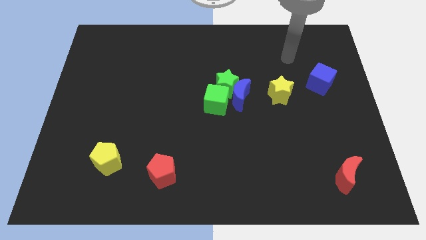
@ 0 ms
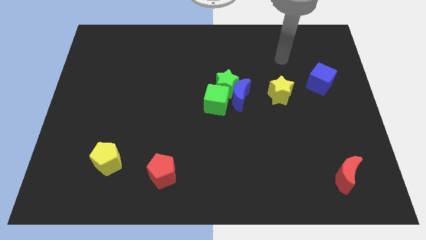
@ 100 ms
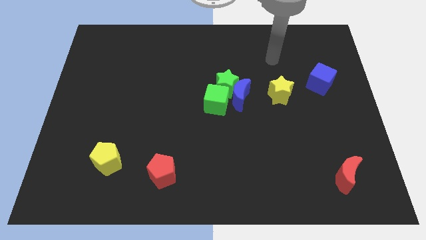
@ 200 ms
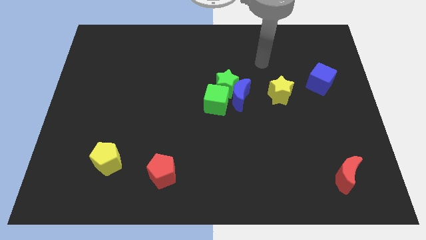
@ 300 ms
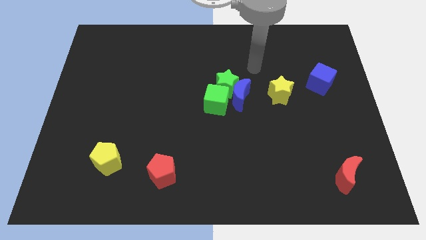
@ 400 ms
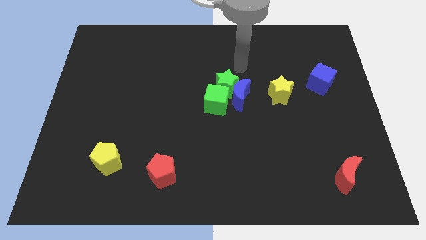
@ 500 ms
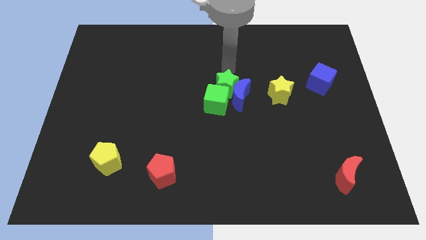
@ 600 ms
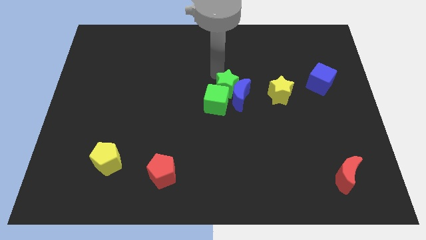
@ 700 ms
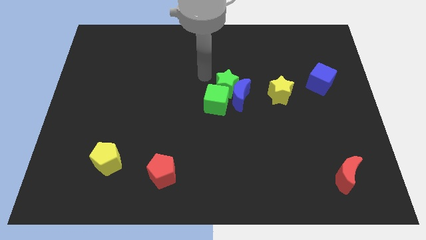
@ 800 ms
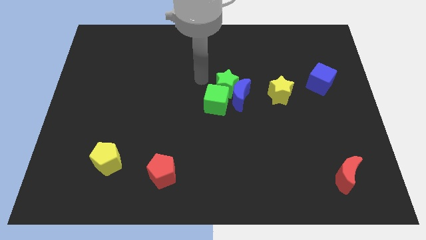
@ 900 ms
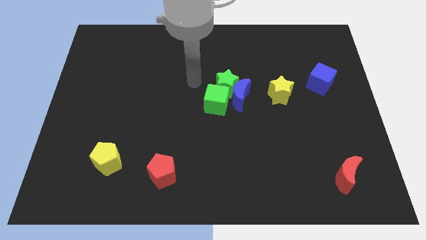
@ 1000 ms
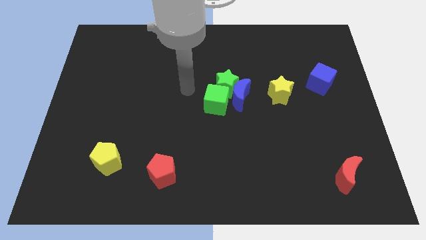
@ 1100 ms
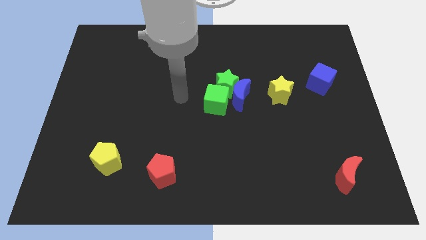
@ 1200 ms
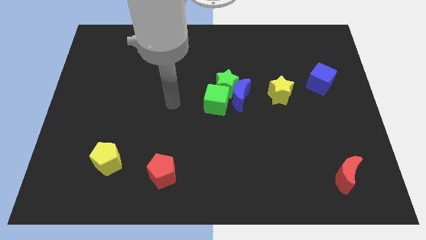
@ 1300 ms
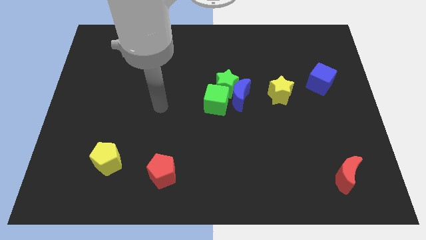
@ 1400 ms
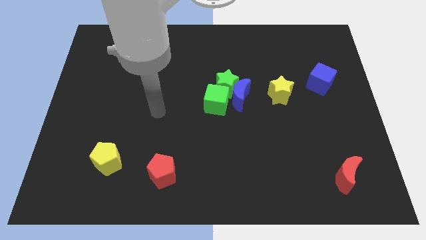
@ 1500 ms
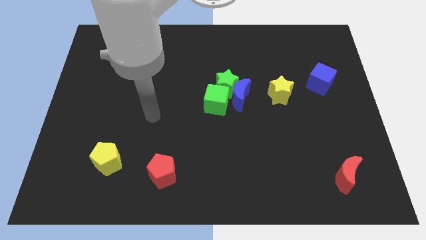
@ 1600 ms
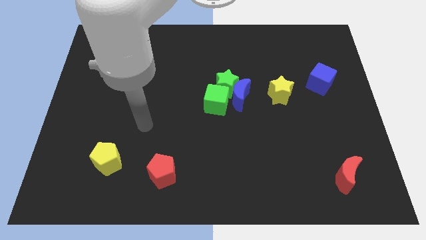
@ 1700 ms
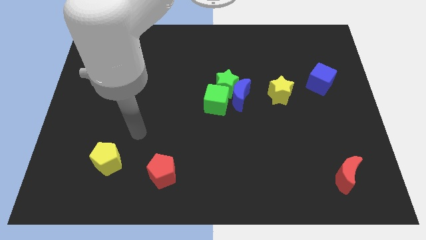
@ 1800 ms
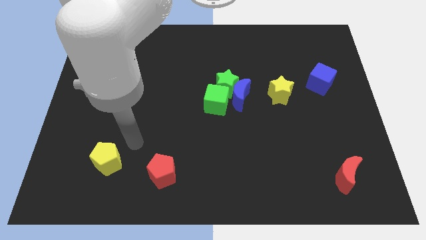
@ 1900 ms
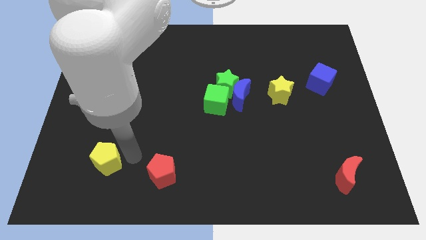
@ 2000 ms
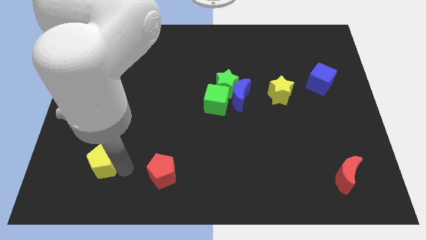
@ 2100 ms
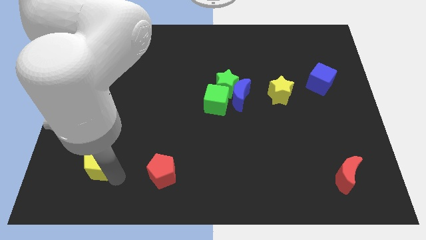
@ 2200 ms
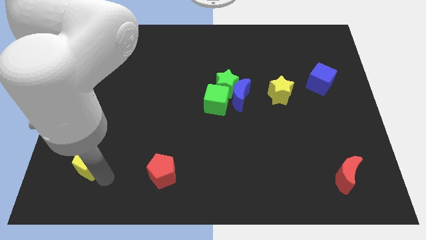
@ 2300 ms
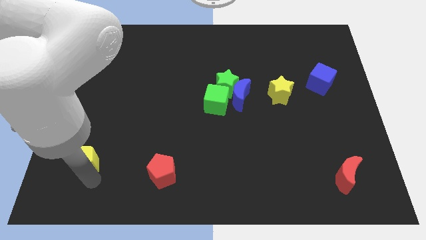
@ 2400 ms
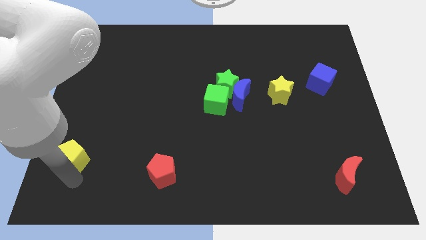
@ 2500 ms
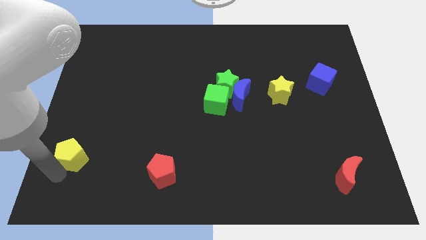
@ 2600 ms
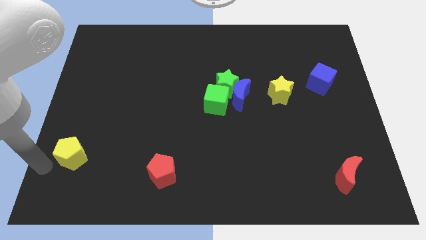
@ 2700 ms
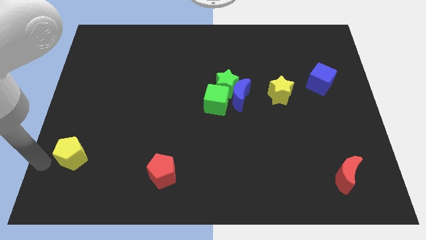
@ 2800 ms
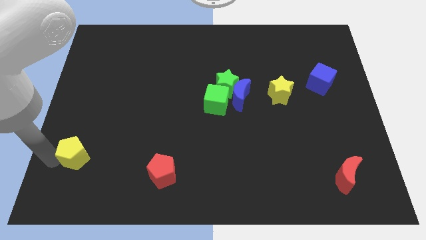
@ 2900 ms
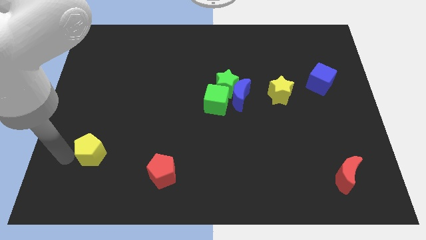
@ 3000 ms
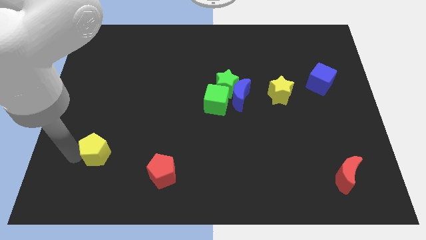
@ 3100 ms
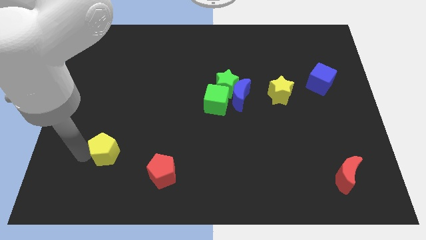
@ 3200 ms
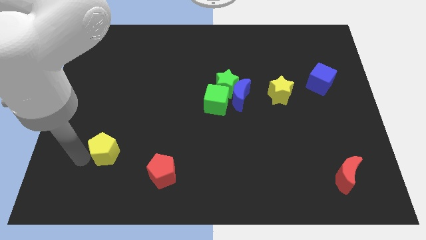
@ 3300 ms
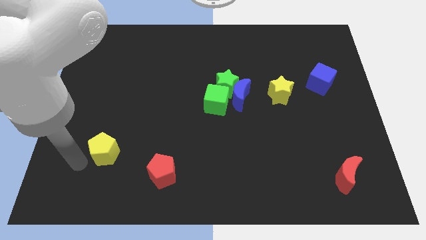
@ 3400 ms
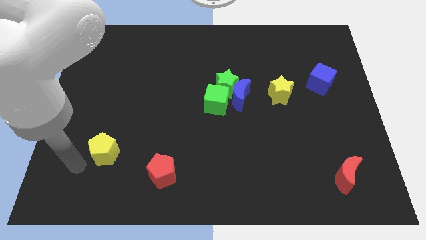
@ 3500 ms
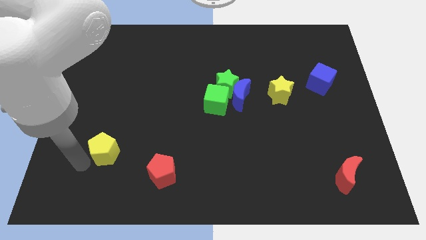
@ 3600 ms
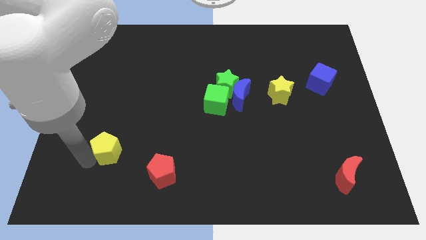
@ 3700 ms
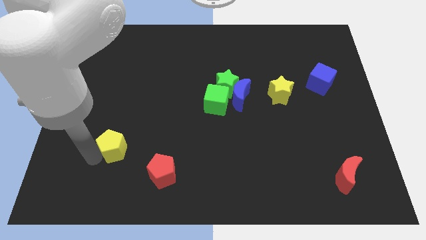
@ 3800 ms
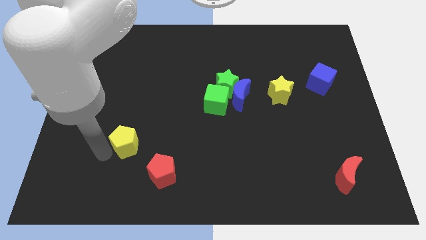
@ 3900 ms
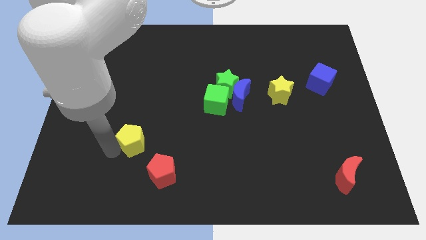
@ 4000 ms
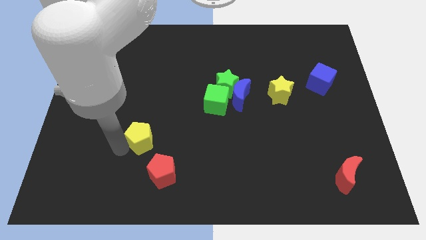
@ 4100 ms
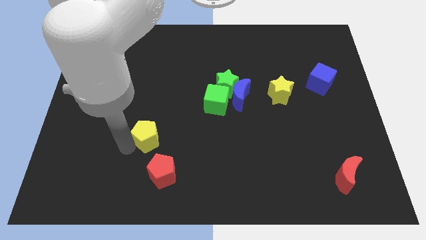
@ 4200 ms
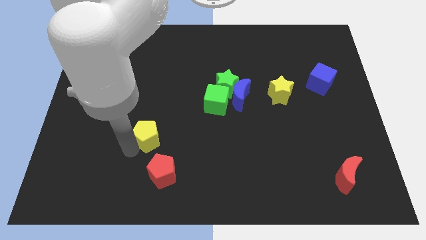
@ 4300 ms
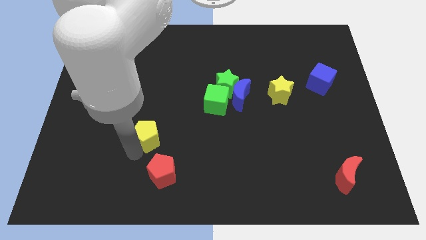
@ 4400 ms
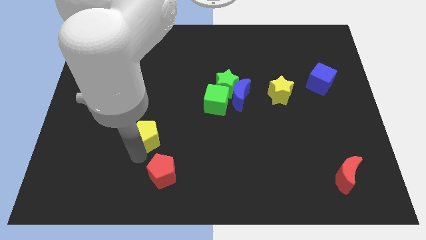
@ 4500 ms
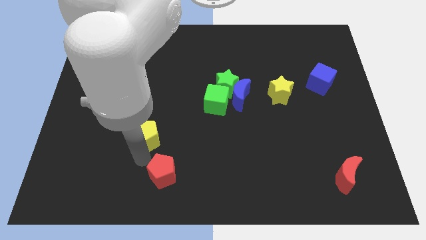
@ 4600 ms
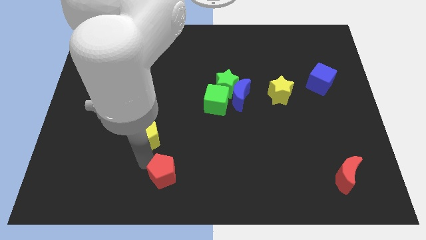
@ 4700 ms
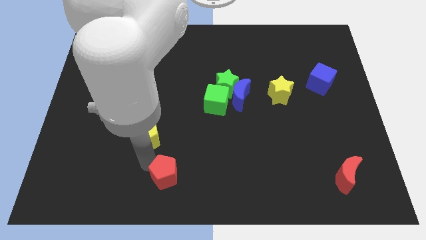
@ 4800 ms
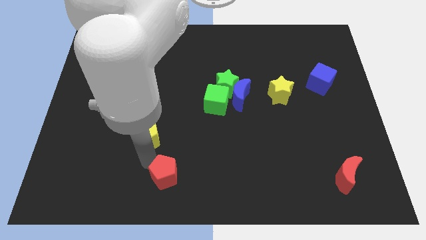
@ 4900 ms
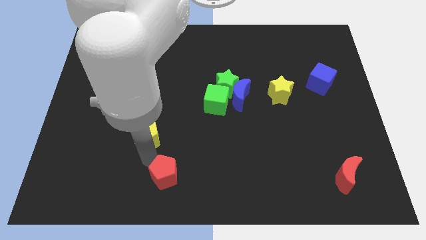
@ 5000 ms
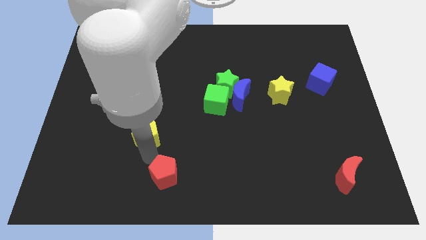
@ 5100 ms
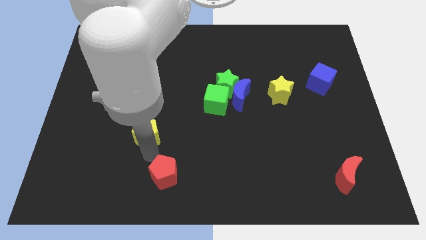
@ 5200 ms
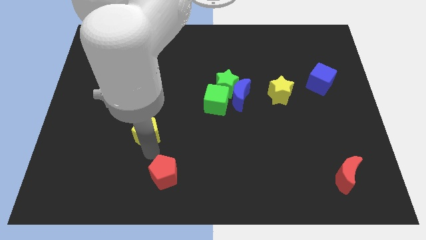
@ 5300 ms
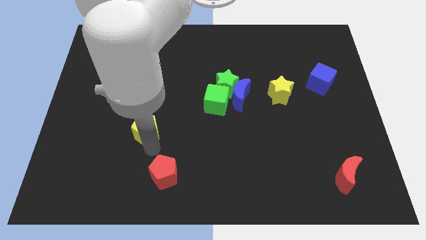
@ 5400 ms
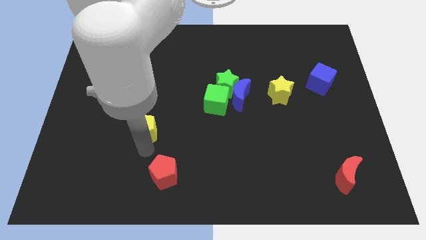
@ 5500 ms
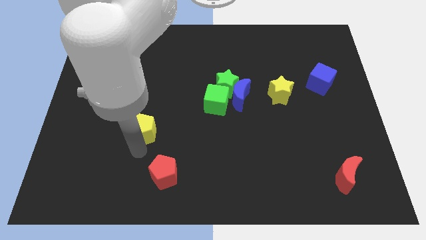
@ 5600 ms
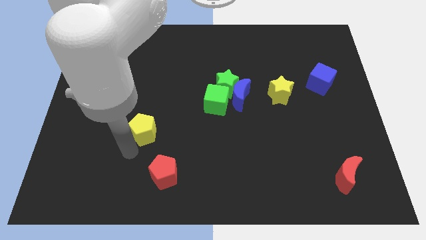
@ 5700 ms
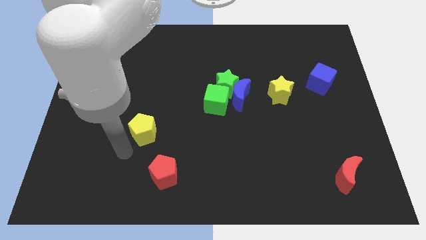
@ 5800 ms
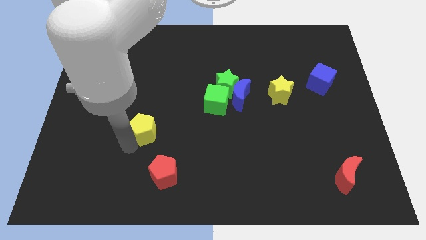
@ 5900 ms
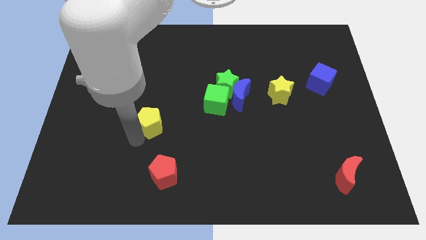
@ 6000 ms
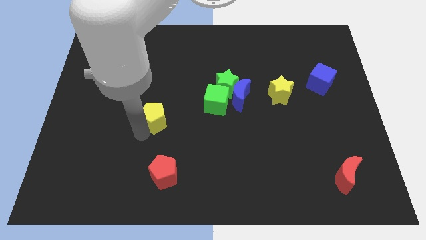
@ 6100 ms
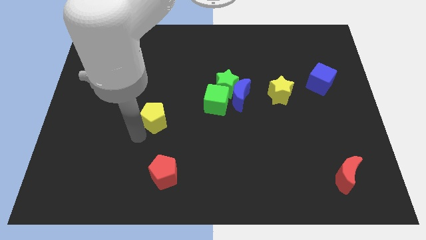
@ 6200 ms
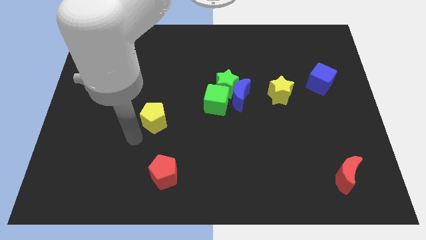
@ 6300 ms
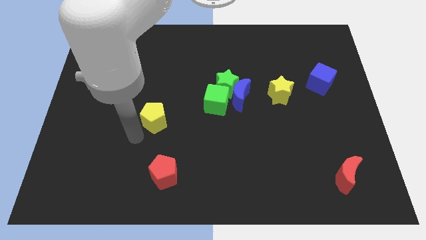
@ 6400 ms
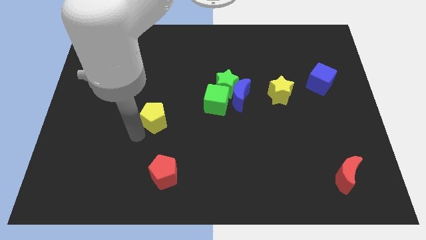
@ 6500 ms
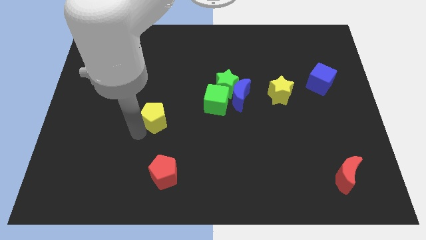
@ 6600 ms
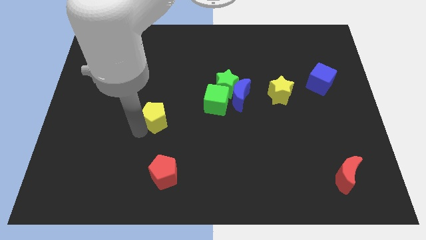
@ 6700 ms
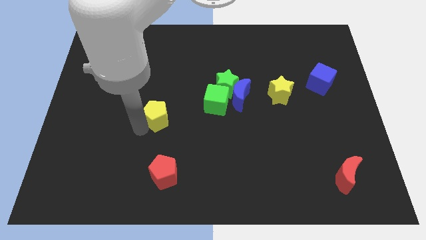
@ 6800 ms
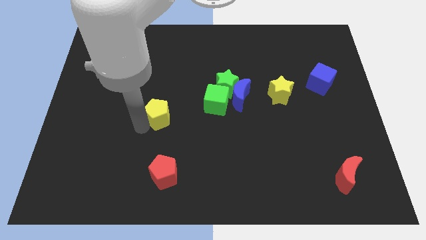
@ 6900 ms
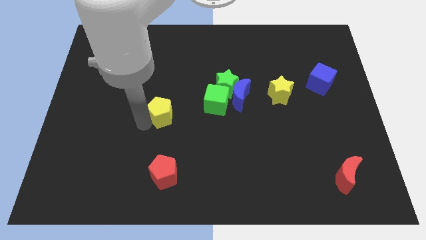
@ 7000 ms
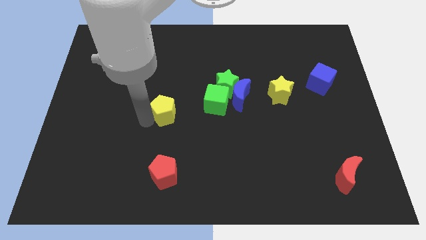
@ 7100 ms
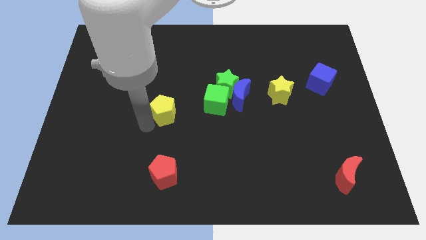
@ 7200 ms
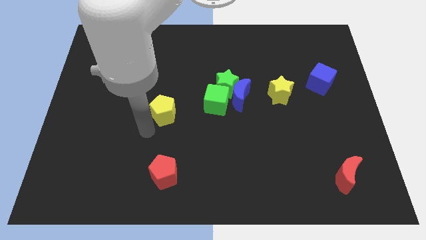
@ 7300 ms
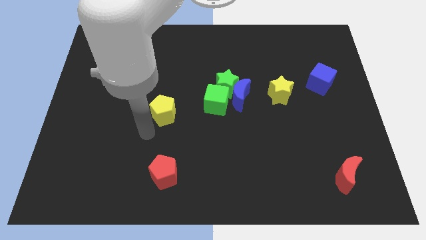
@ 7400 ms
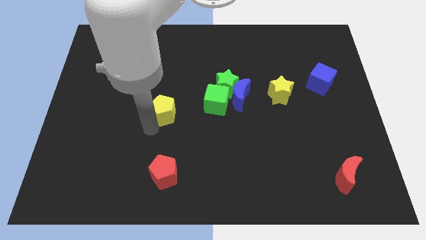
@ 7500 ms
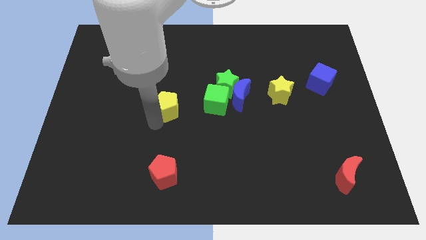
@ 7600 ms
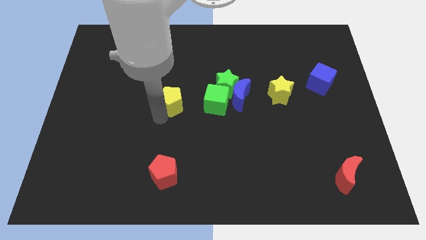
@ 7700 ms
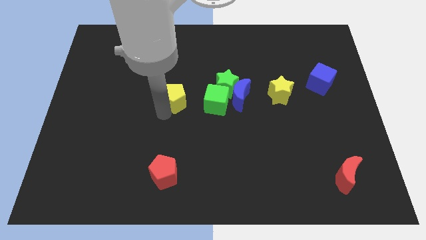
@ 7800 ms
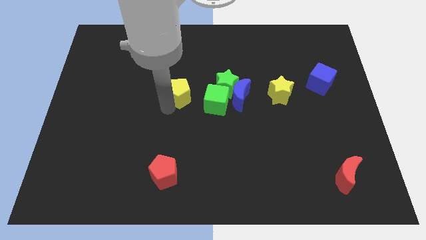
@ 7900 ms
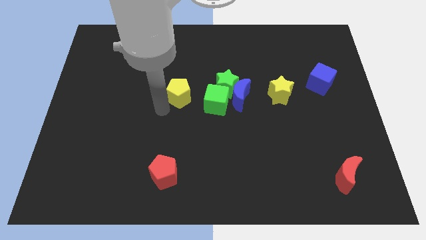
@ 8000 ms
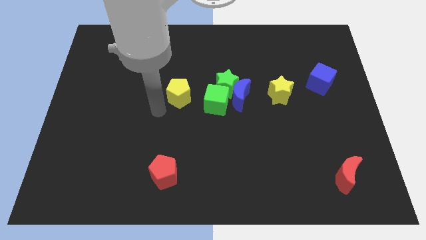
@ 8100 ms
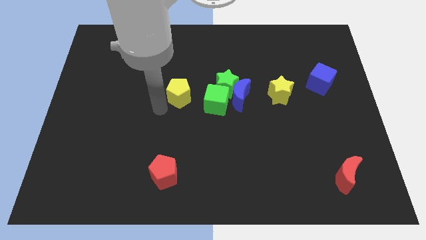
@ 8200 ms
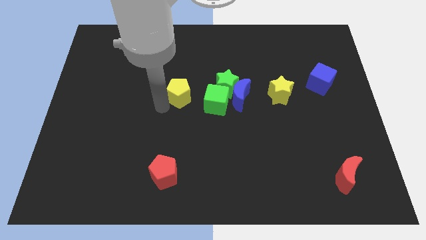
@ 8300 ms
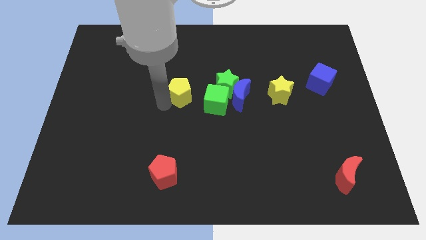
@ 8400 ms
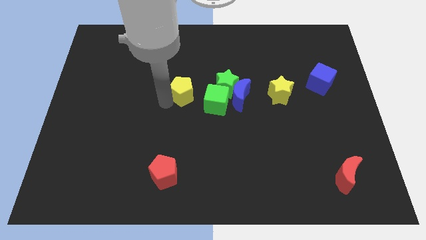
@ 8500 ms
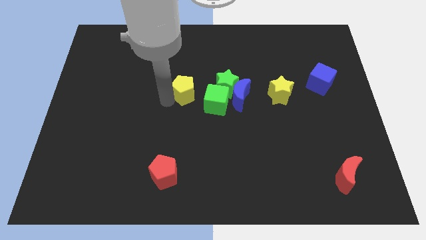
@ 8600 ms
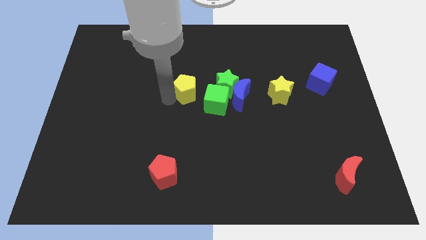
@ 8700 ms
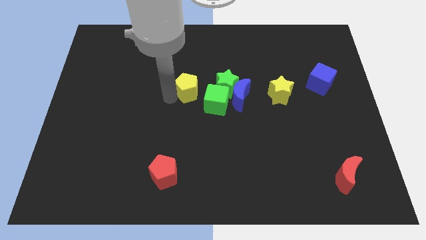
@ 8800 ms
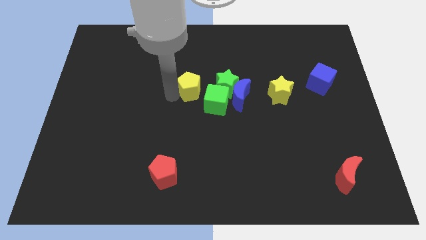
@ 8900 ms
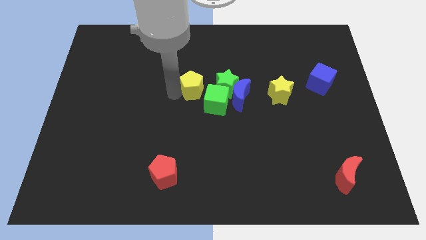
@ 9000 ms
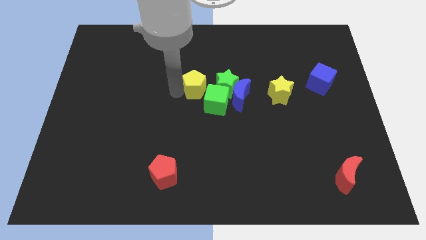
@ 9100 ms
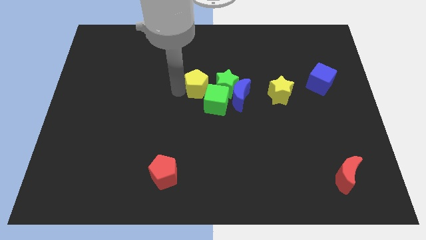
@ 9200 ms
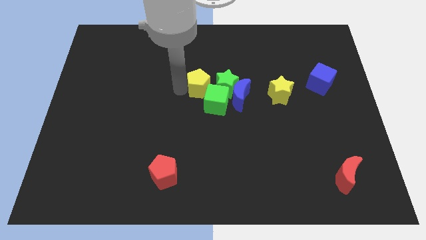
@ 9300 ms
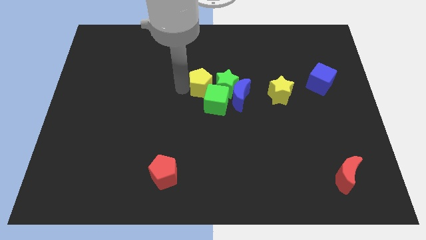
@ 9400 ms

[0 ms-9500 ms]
move the yellow pentagon next to the green star
